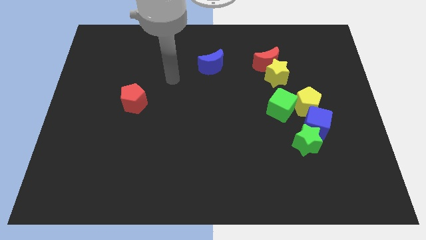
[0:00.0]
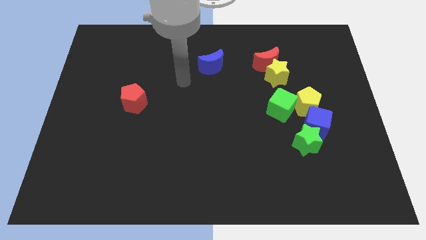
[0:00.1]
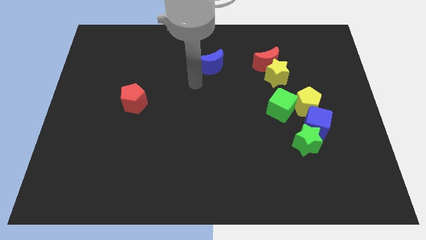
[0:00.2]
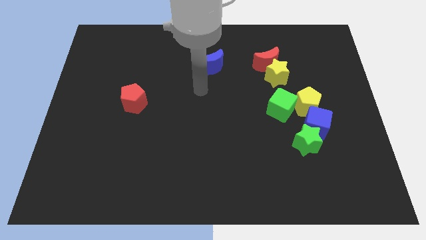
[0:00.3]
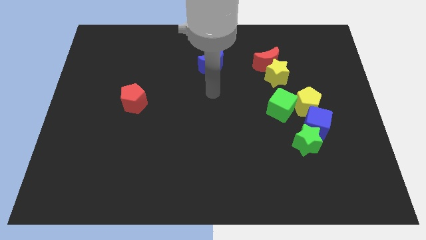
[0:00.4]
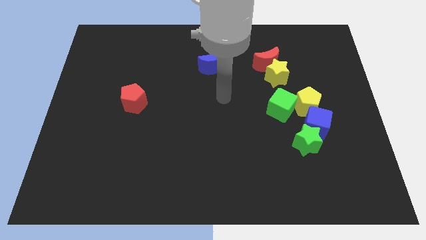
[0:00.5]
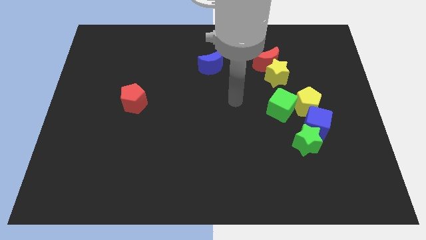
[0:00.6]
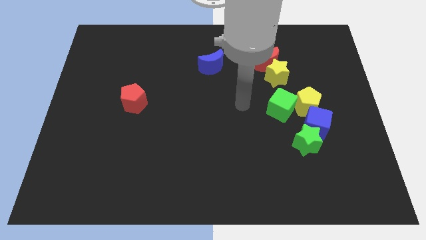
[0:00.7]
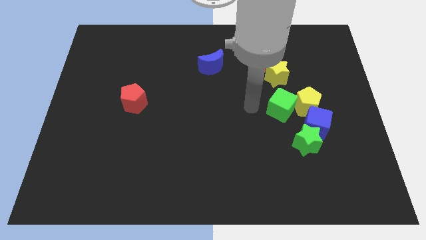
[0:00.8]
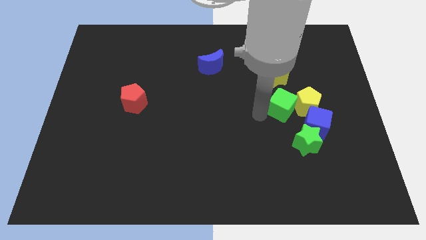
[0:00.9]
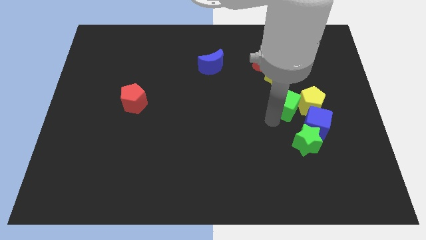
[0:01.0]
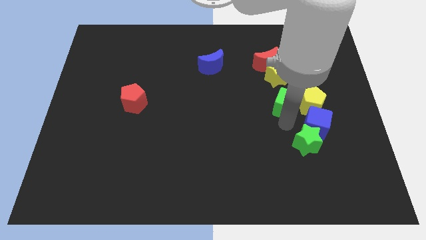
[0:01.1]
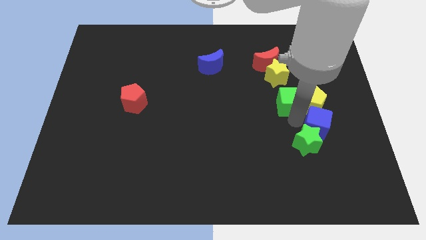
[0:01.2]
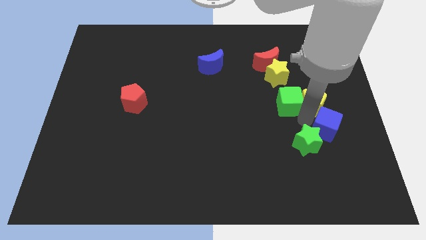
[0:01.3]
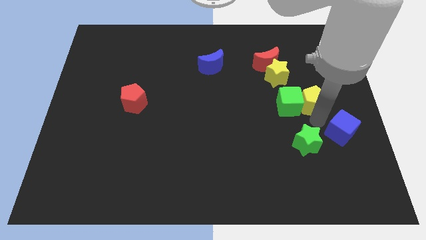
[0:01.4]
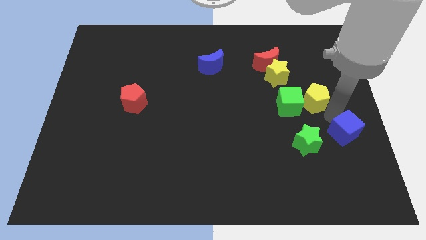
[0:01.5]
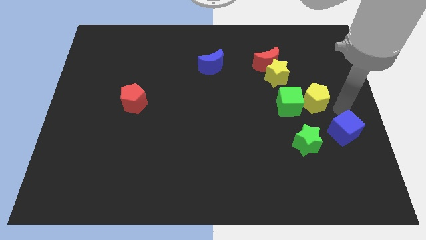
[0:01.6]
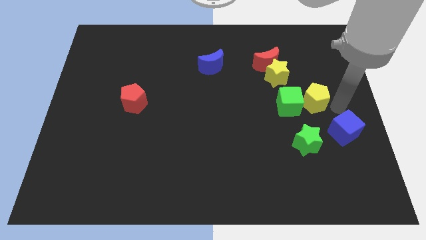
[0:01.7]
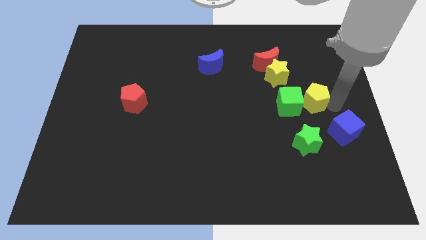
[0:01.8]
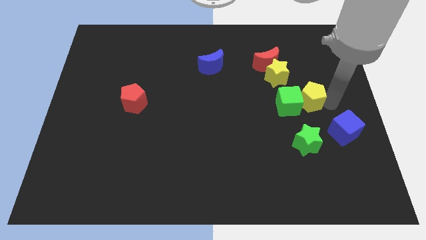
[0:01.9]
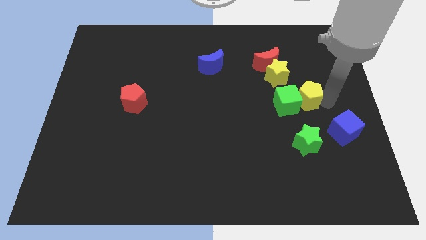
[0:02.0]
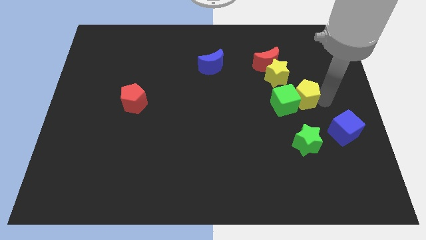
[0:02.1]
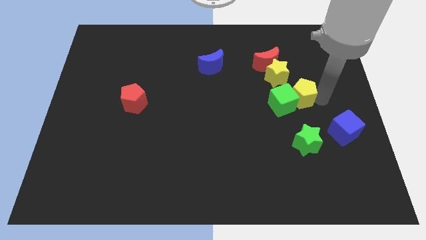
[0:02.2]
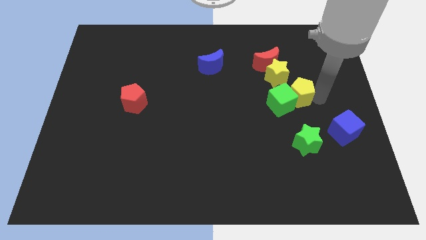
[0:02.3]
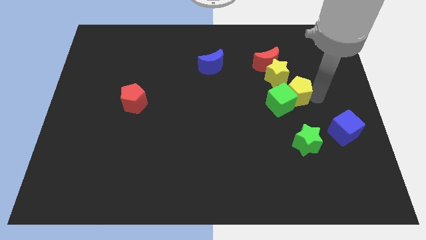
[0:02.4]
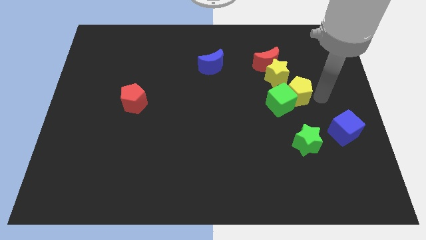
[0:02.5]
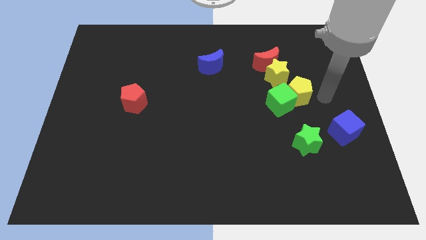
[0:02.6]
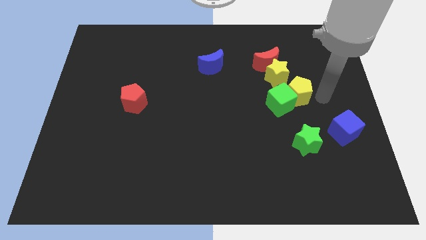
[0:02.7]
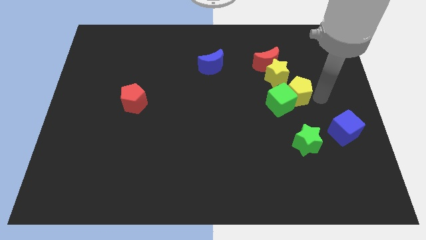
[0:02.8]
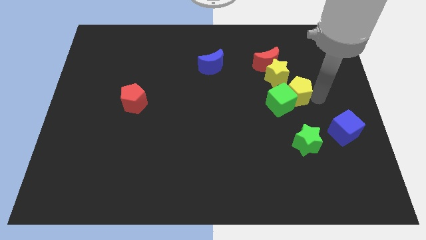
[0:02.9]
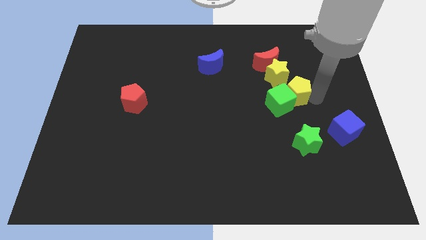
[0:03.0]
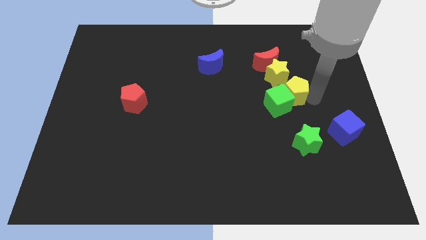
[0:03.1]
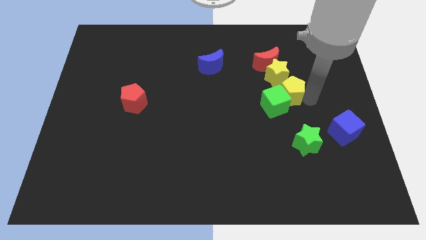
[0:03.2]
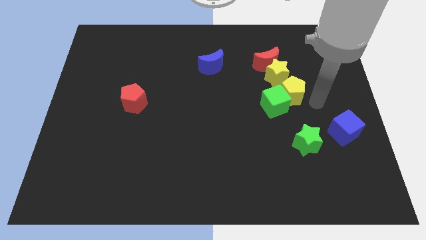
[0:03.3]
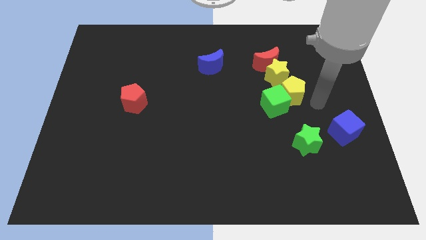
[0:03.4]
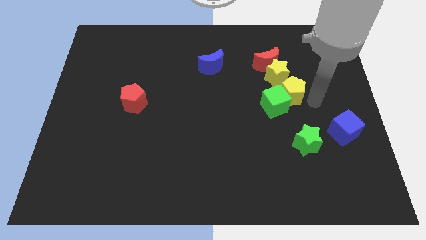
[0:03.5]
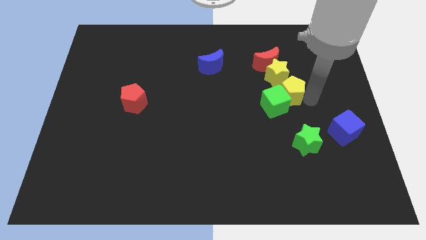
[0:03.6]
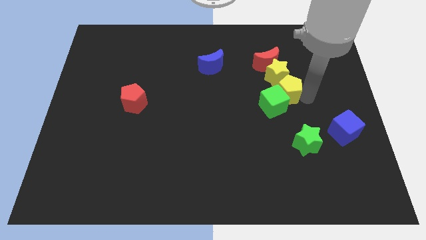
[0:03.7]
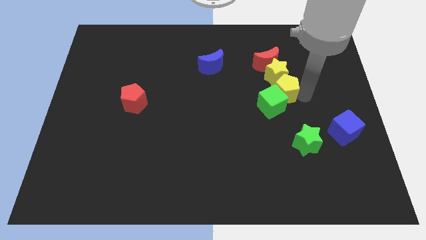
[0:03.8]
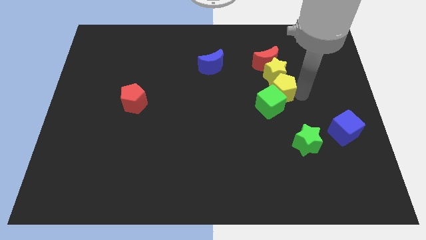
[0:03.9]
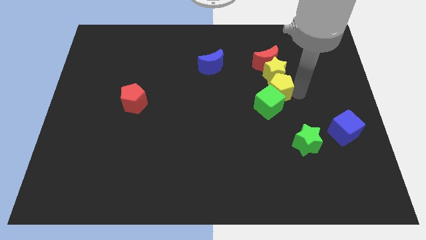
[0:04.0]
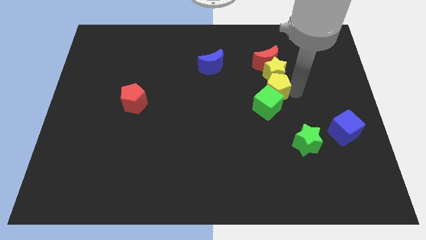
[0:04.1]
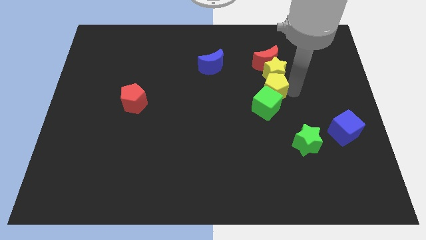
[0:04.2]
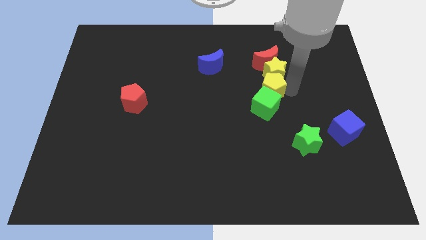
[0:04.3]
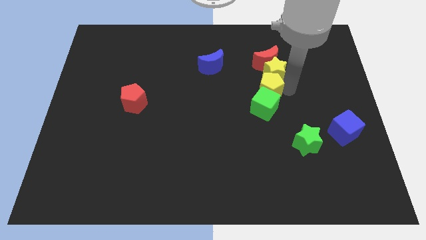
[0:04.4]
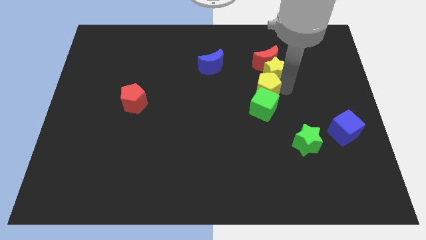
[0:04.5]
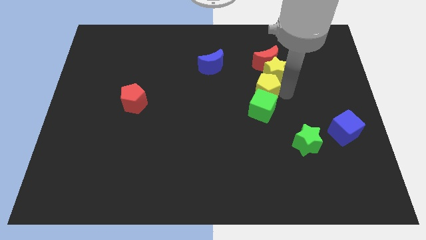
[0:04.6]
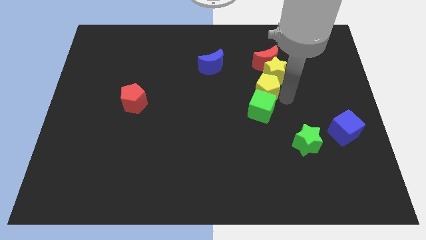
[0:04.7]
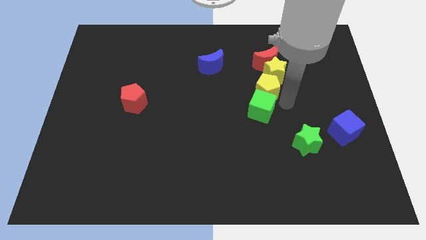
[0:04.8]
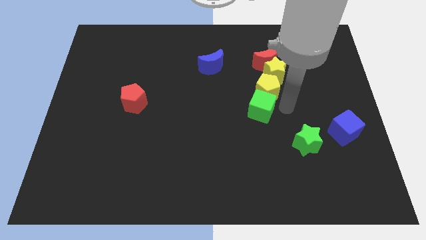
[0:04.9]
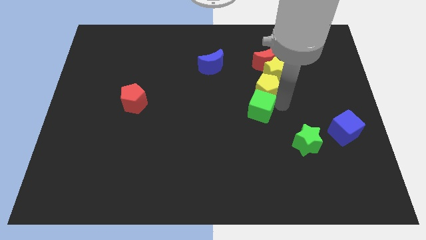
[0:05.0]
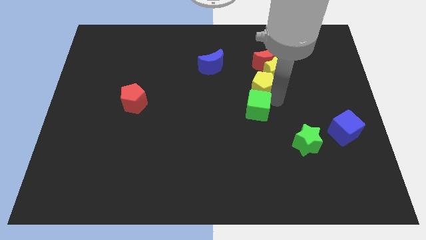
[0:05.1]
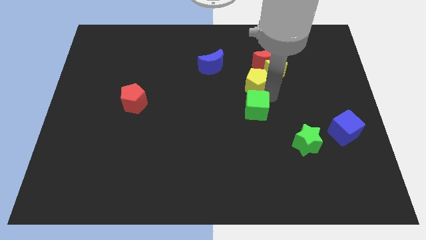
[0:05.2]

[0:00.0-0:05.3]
move the yellow pentagon diagonally down and to the left of the red moon

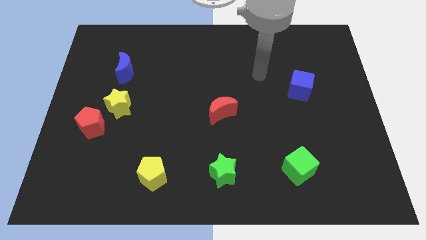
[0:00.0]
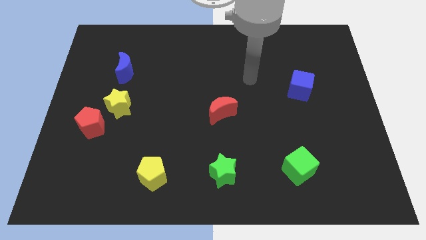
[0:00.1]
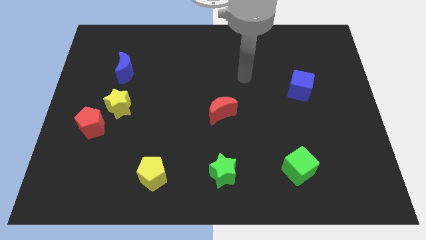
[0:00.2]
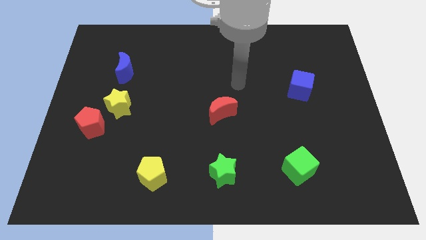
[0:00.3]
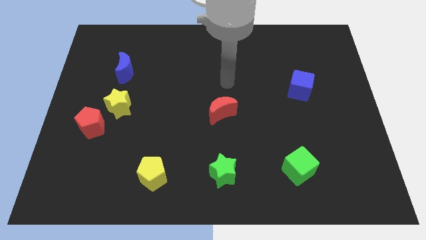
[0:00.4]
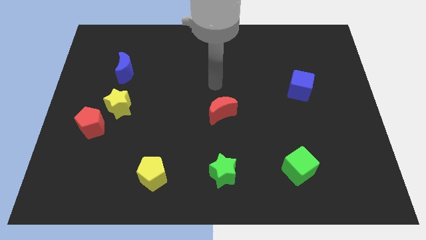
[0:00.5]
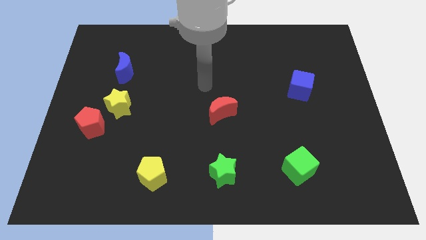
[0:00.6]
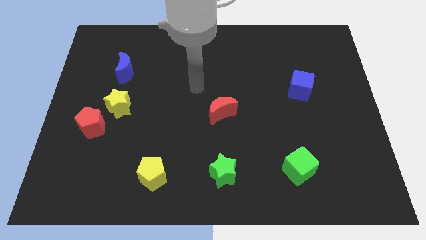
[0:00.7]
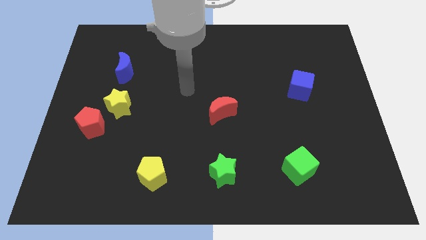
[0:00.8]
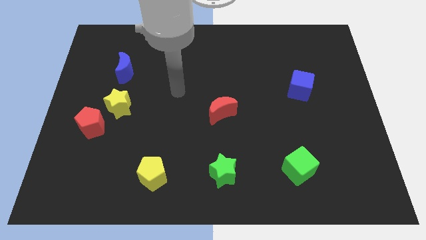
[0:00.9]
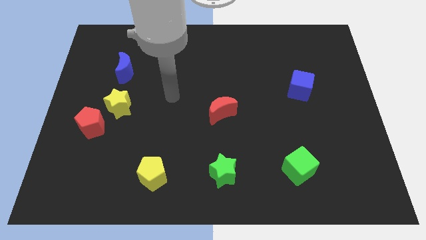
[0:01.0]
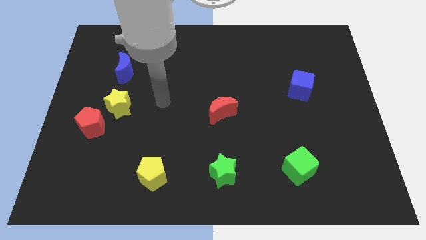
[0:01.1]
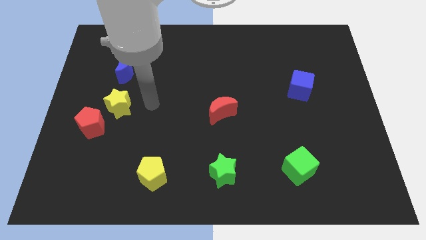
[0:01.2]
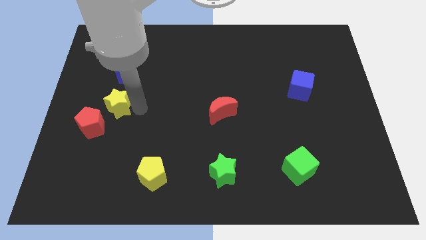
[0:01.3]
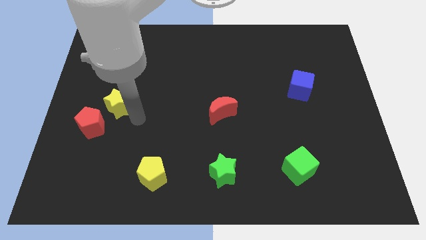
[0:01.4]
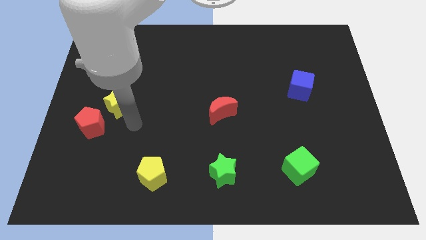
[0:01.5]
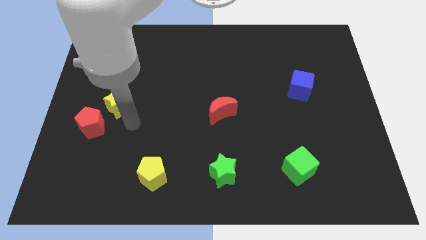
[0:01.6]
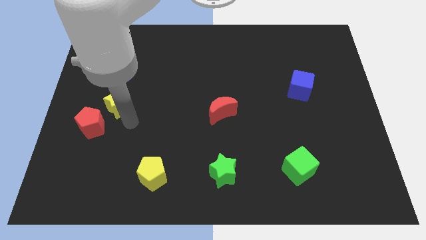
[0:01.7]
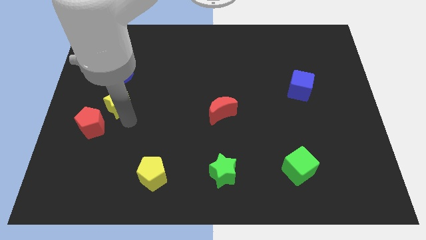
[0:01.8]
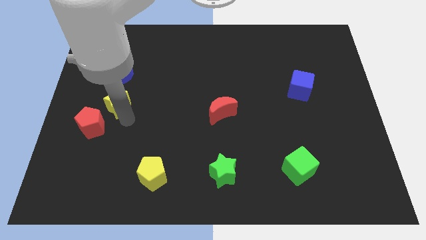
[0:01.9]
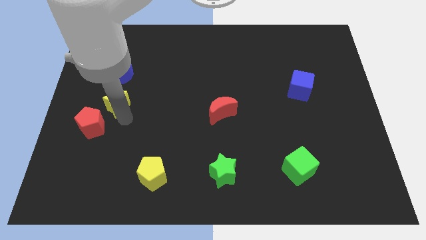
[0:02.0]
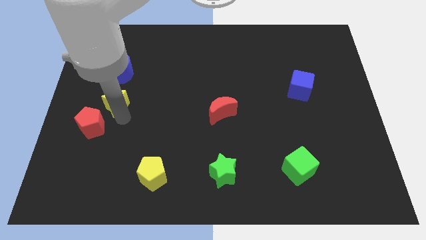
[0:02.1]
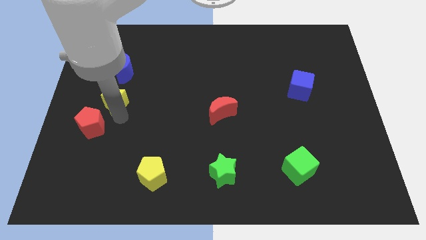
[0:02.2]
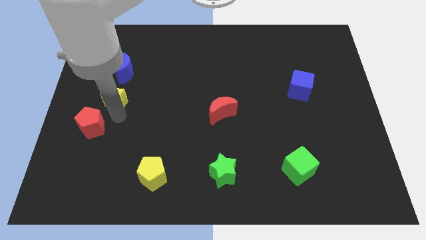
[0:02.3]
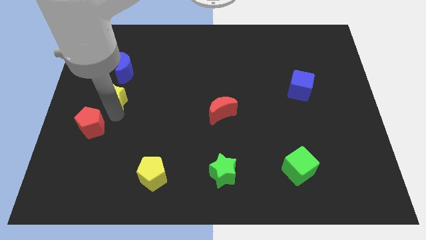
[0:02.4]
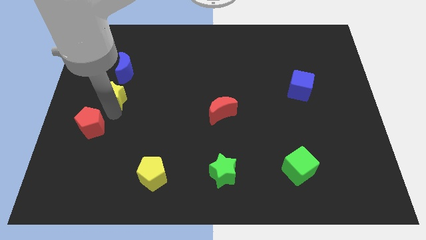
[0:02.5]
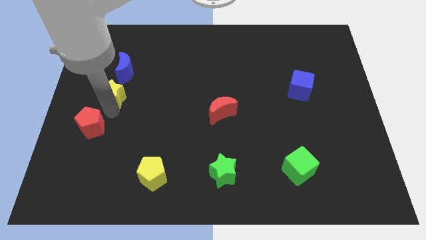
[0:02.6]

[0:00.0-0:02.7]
slide the yellow star to the bottom left side of the blue moon
